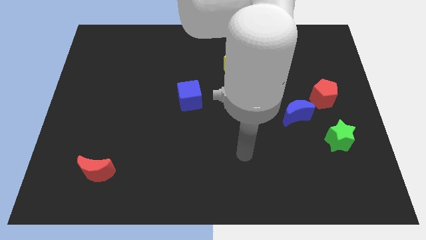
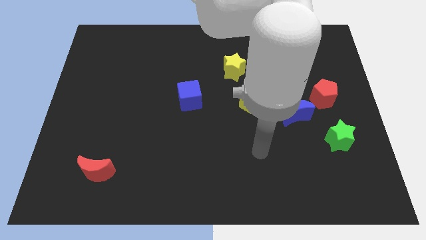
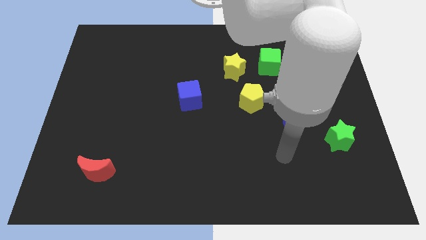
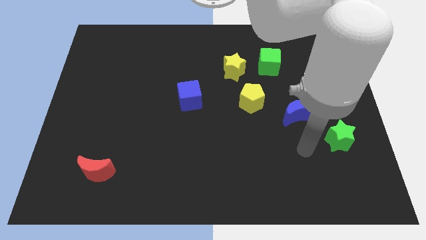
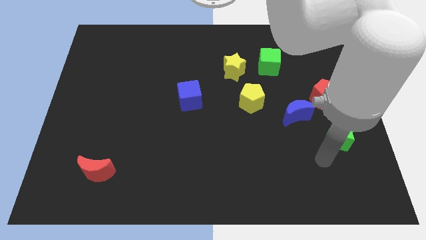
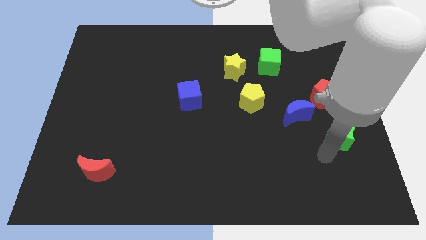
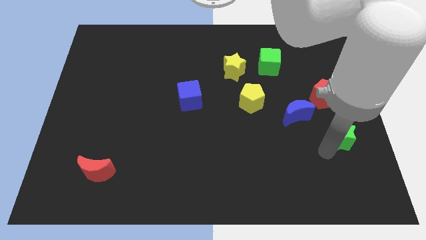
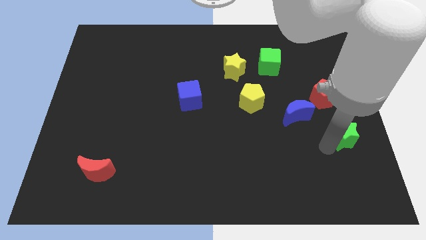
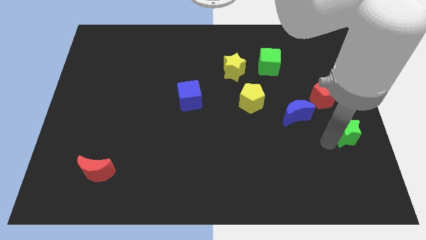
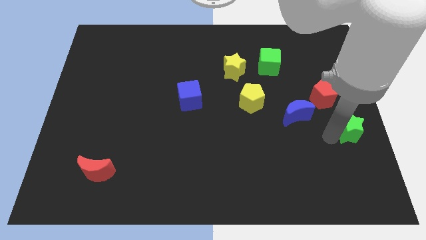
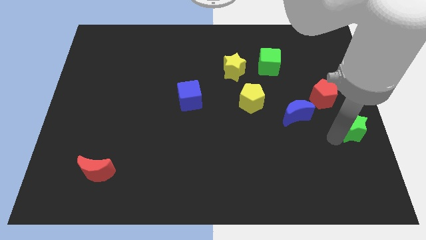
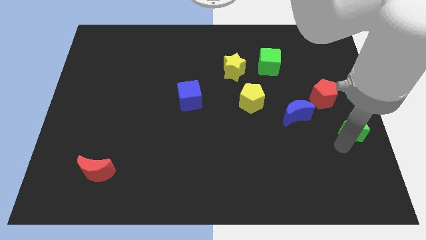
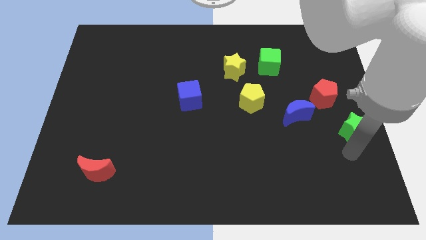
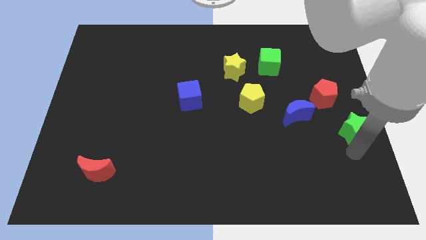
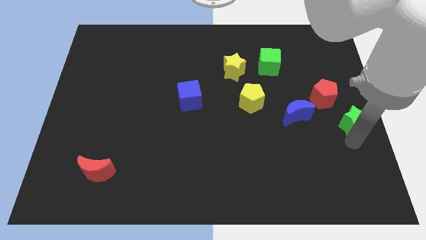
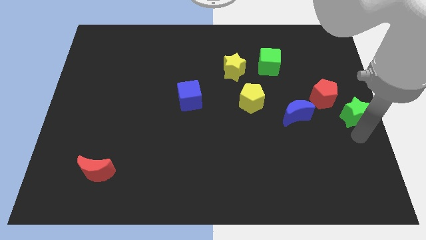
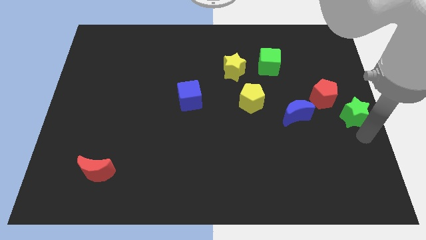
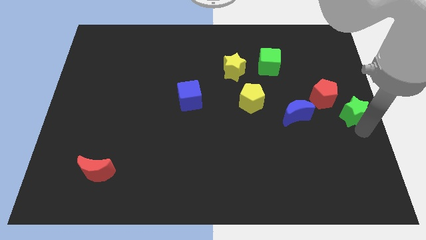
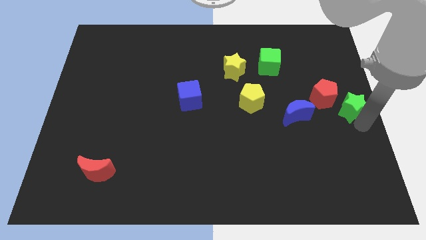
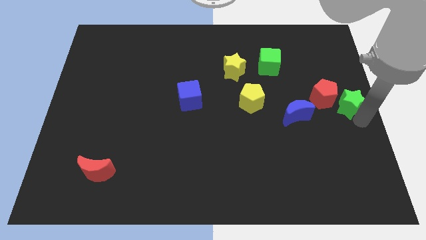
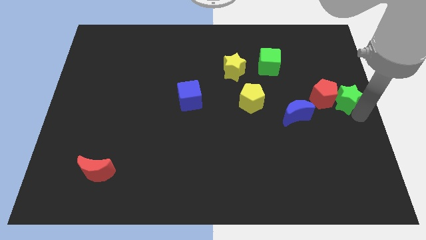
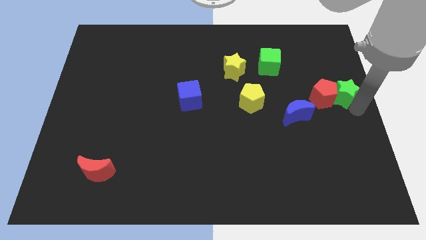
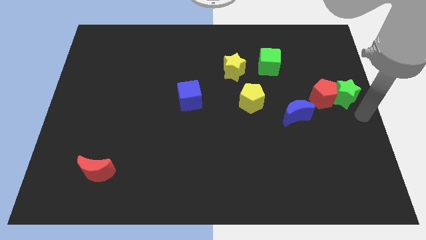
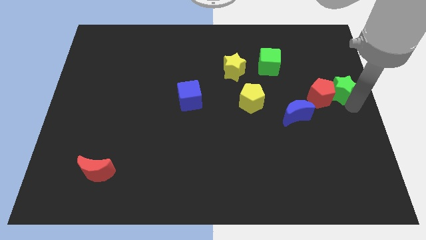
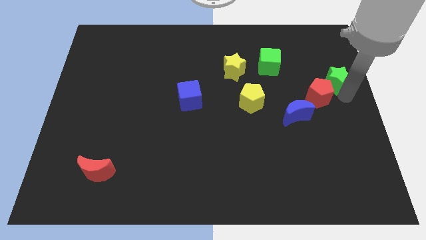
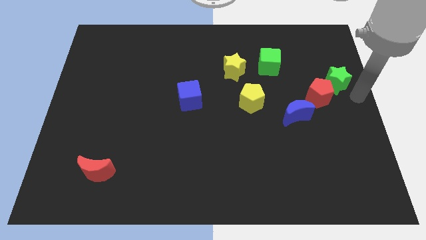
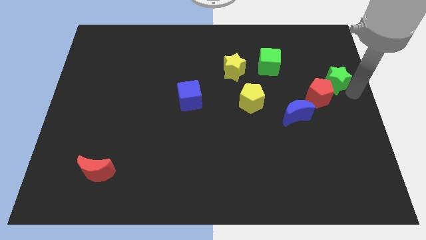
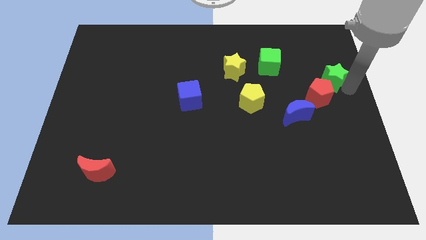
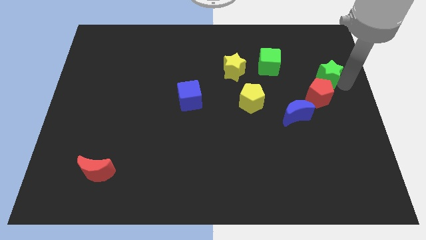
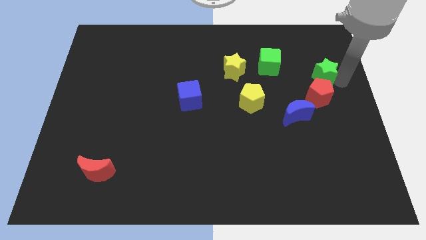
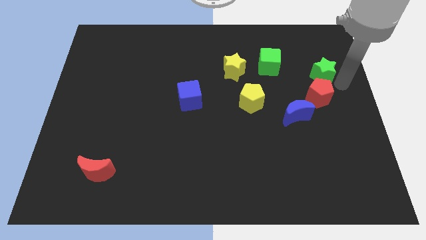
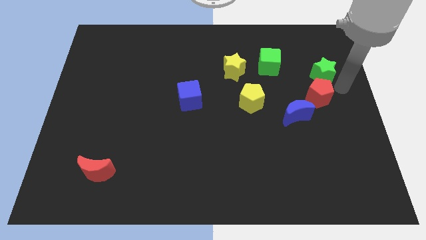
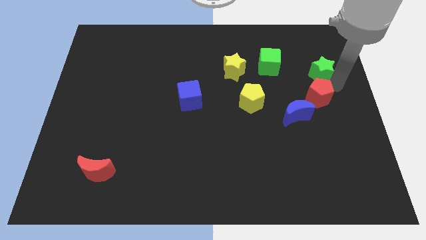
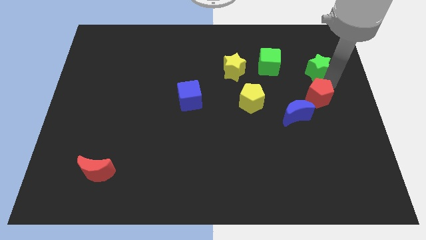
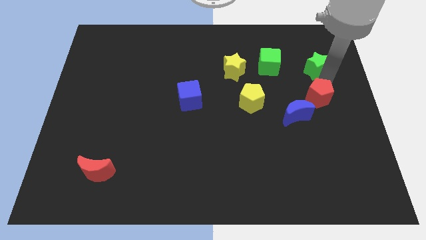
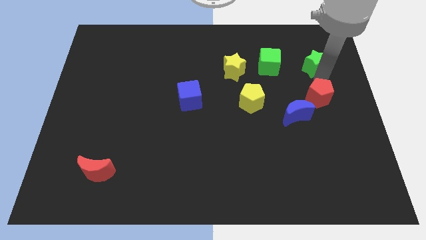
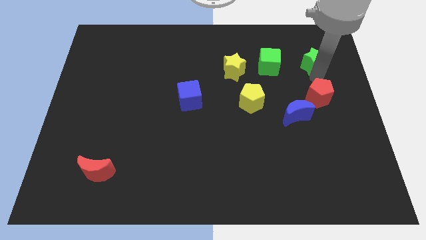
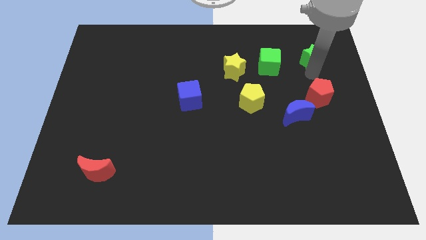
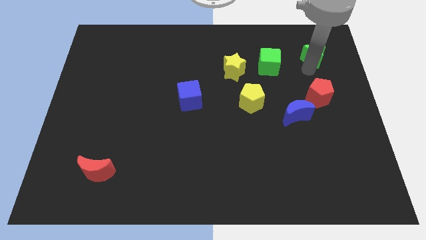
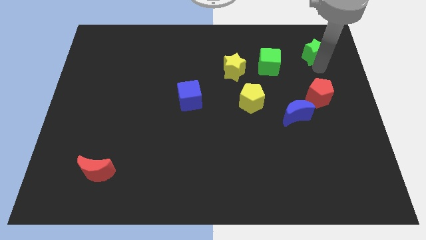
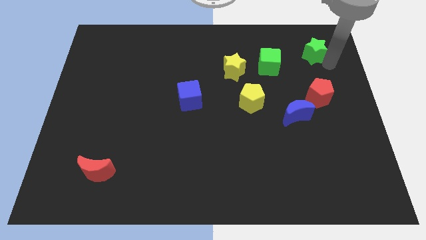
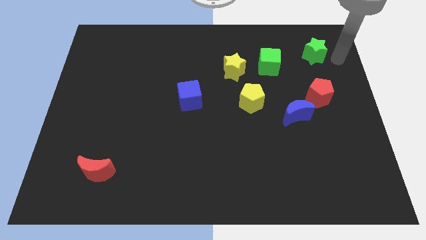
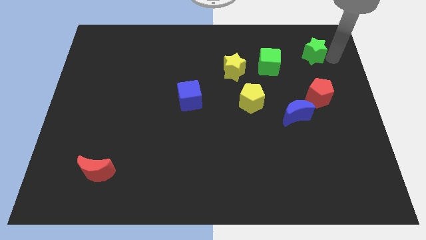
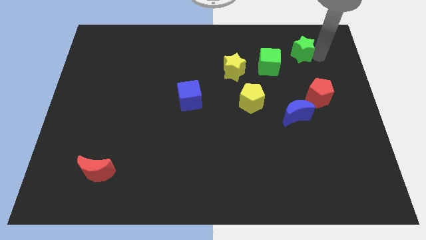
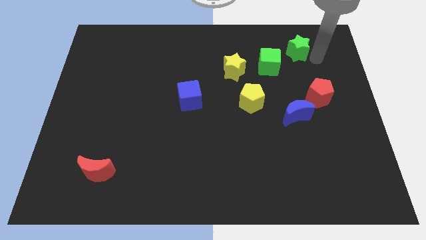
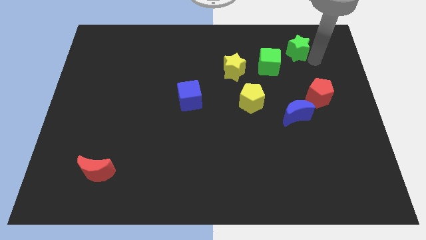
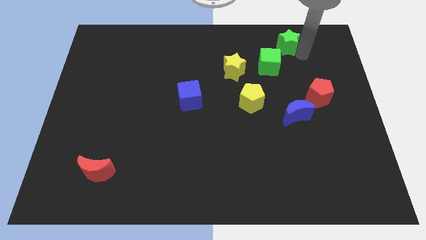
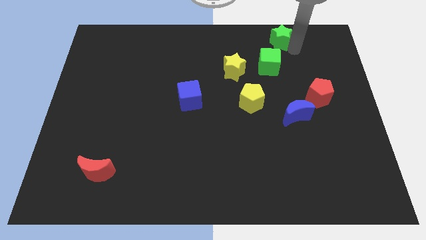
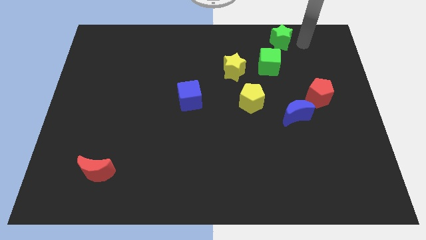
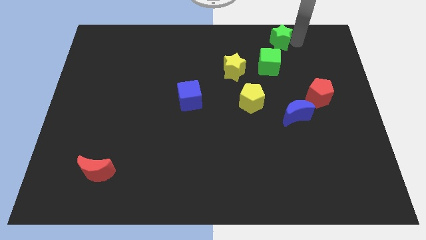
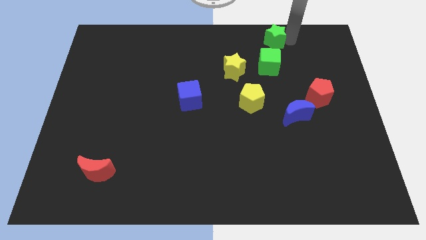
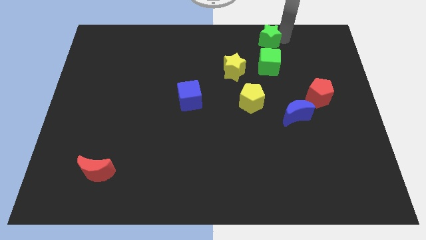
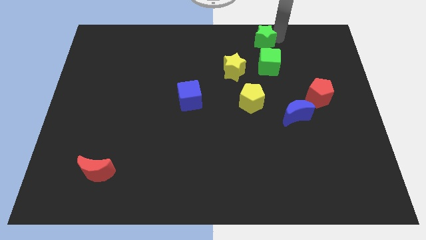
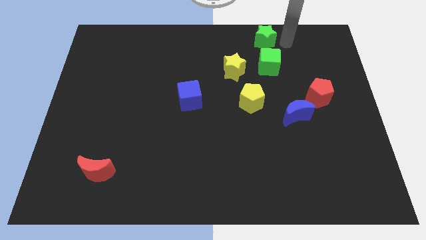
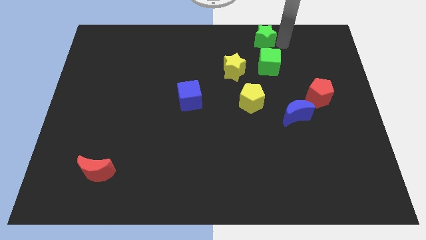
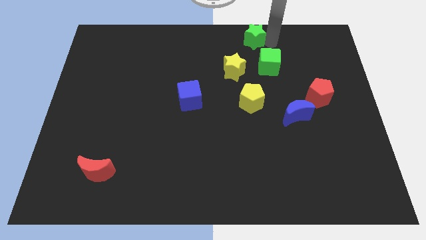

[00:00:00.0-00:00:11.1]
move the green star to the top

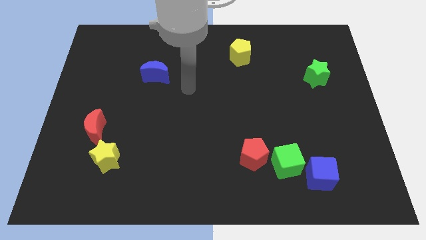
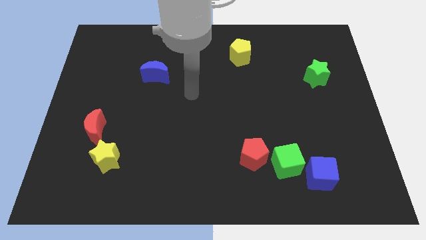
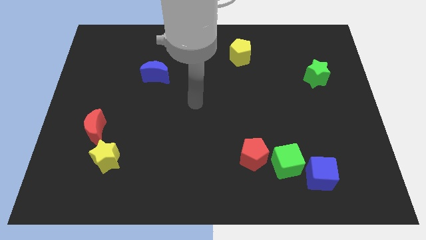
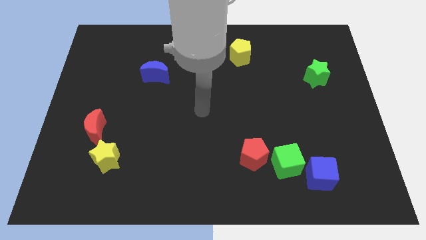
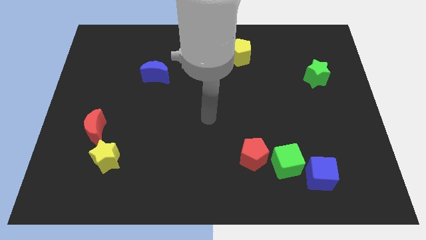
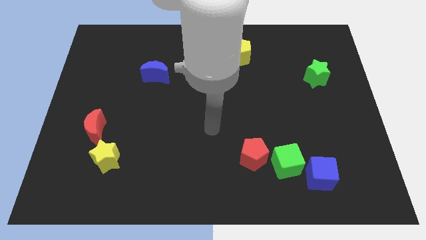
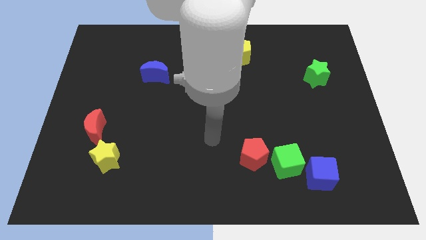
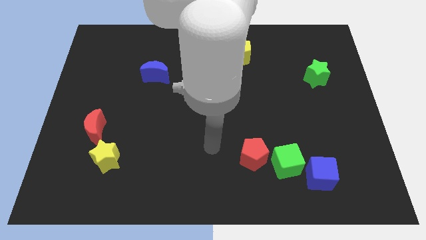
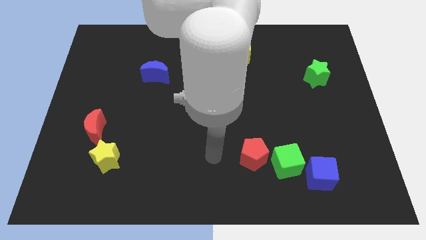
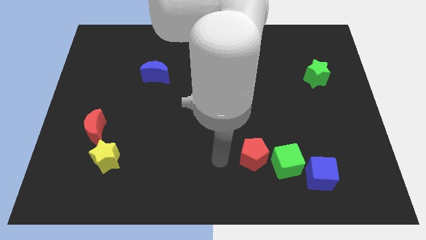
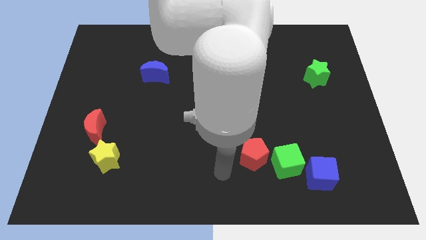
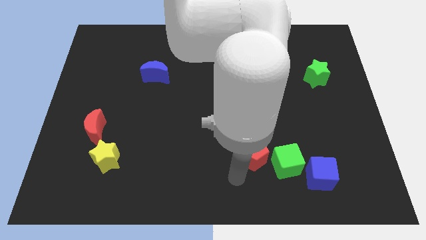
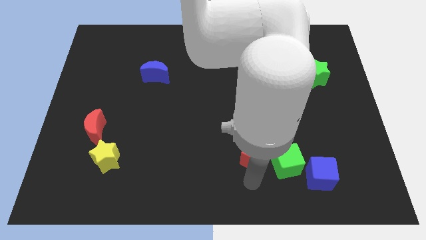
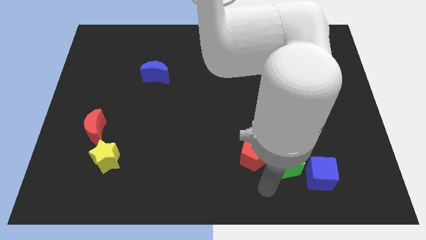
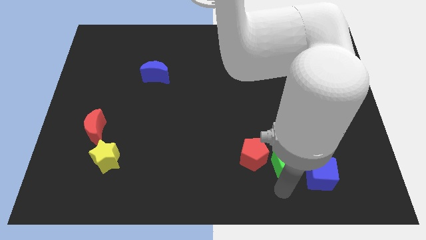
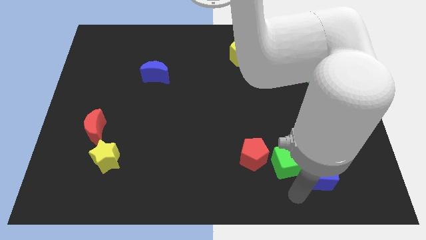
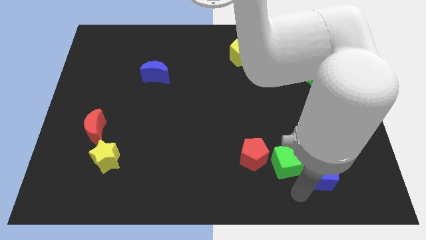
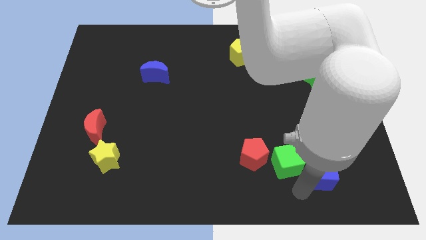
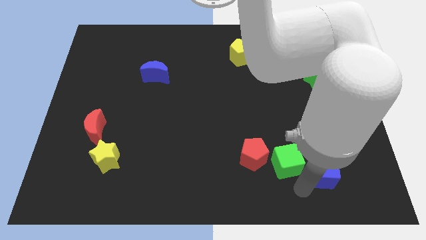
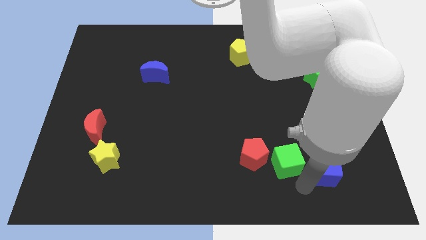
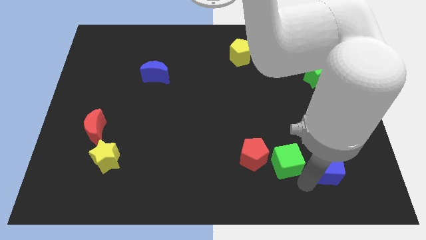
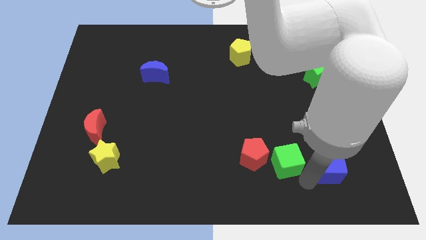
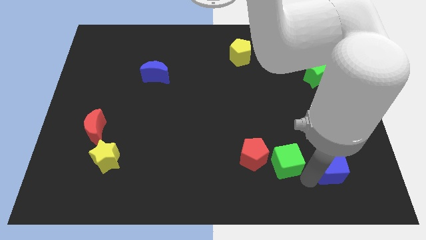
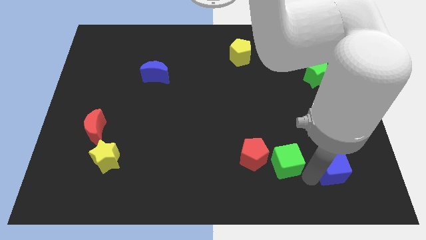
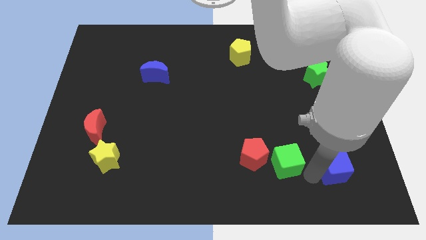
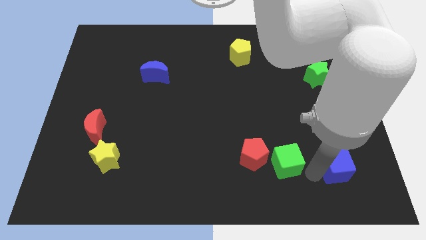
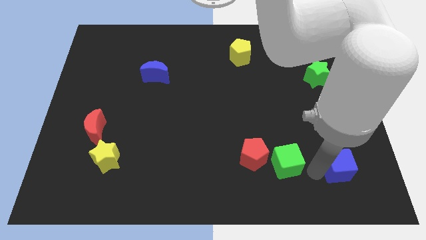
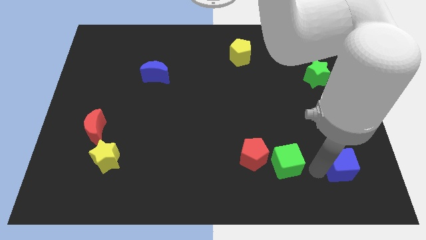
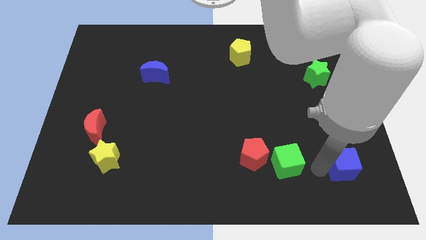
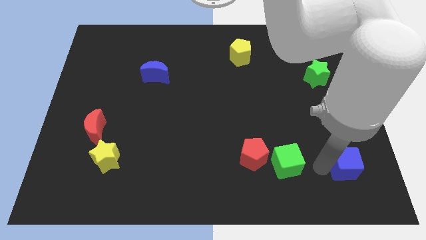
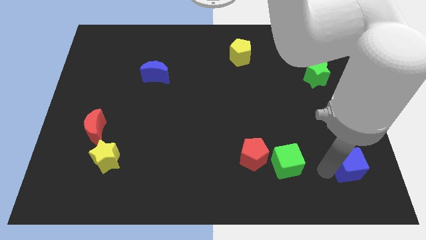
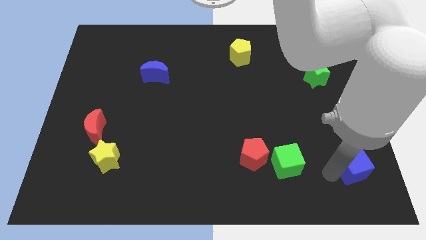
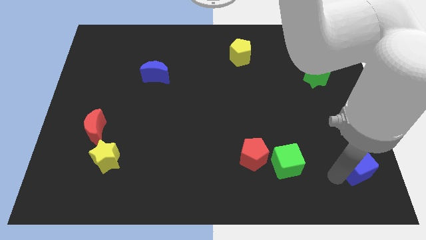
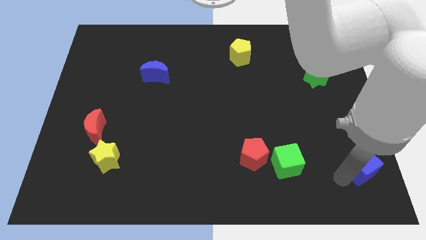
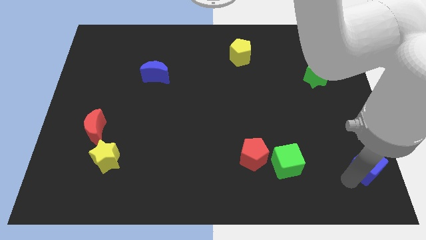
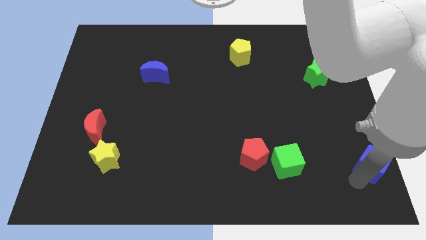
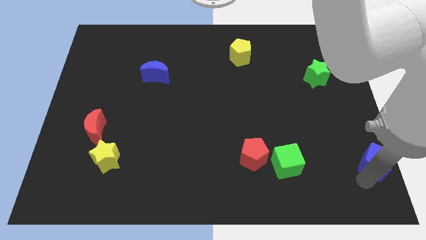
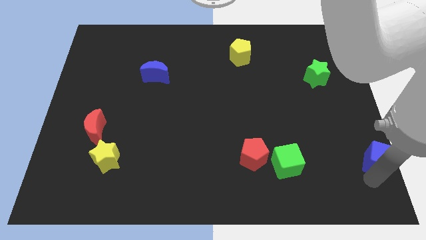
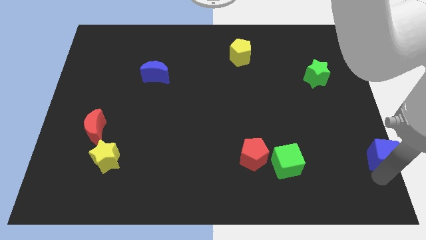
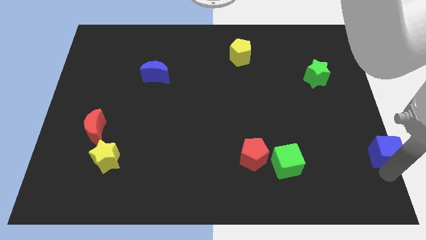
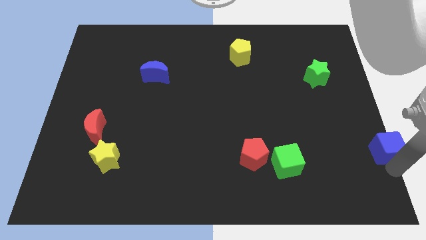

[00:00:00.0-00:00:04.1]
put the blue cube to the center right
